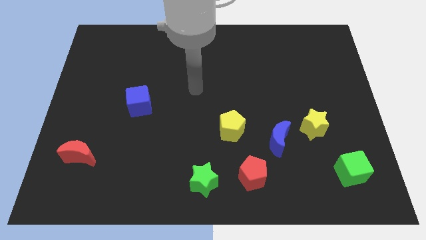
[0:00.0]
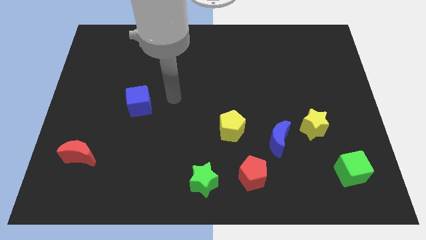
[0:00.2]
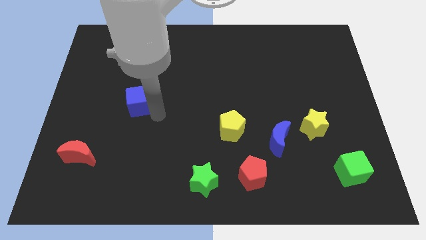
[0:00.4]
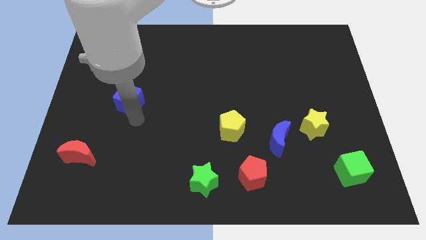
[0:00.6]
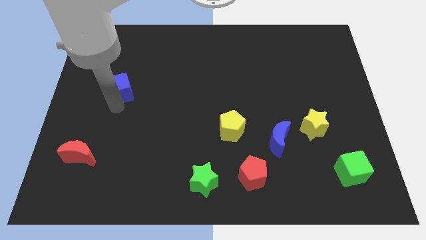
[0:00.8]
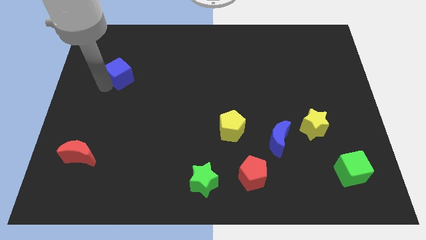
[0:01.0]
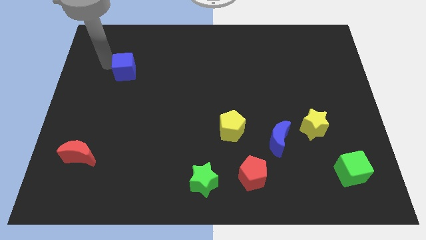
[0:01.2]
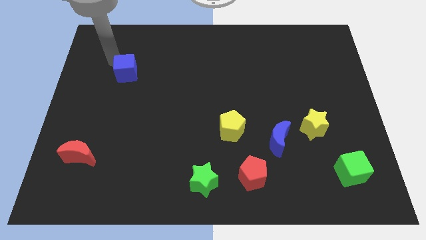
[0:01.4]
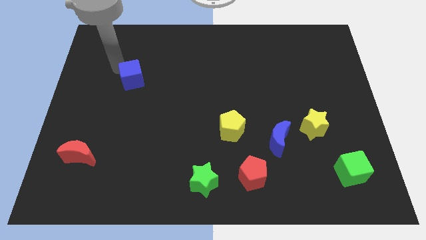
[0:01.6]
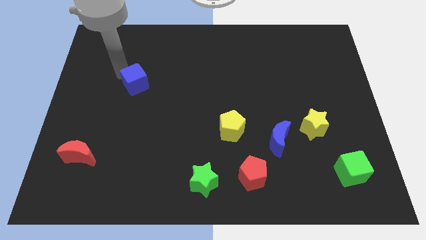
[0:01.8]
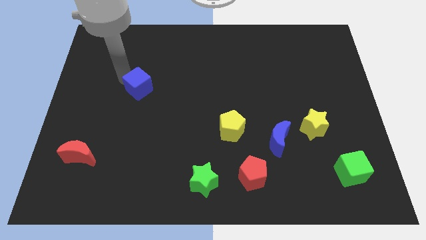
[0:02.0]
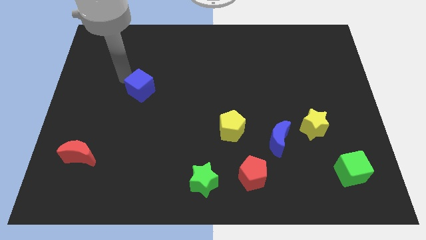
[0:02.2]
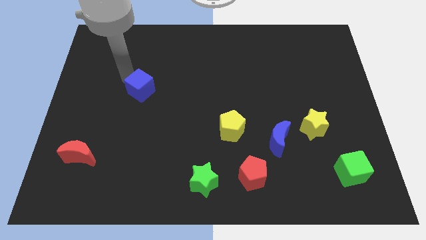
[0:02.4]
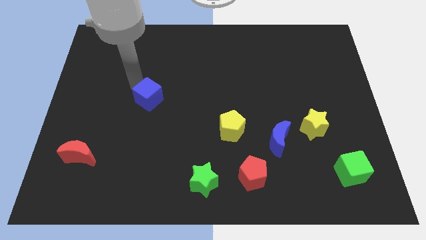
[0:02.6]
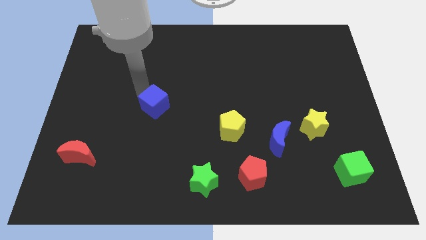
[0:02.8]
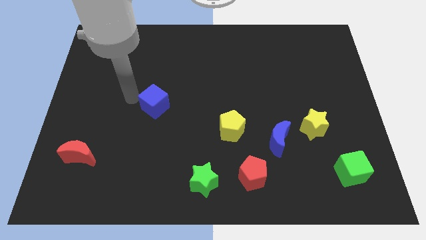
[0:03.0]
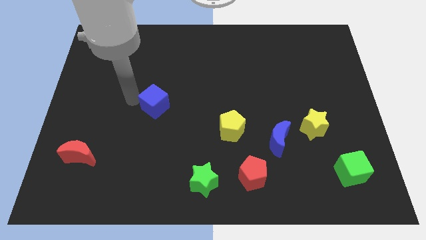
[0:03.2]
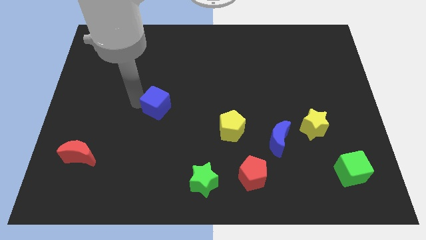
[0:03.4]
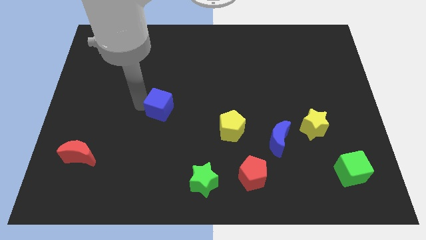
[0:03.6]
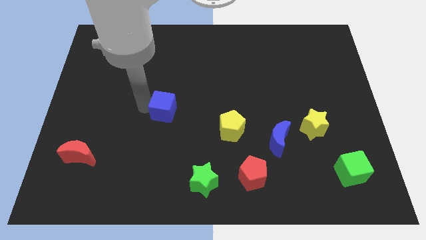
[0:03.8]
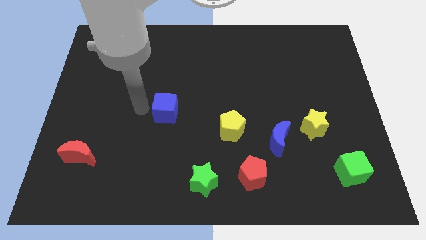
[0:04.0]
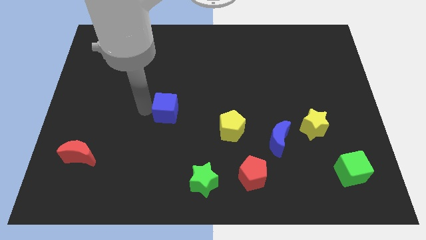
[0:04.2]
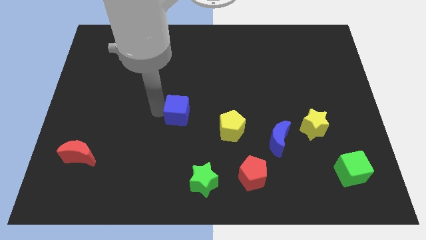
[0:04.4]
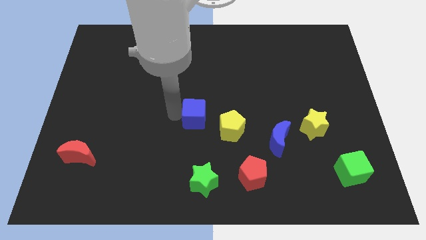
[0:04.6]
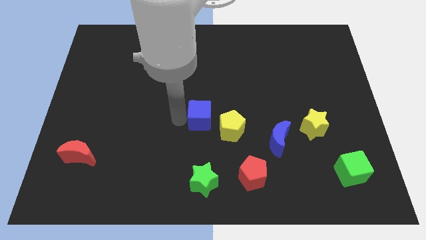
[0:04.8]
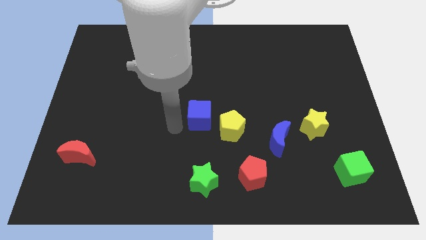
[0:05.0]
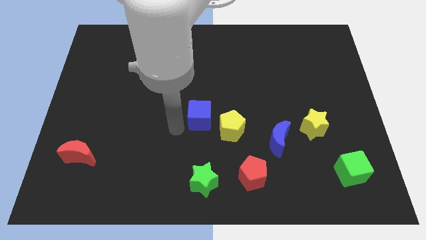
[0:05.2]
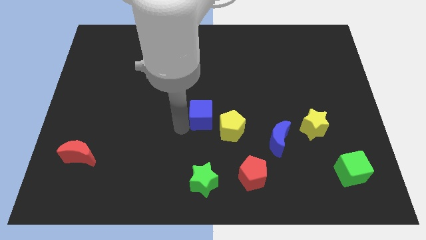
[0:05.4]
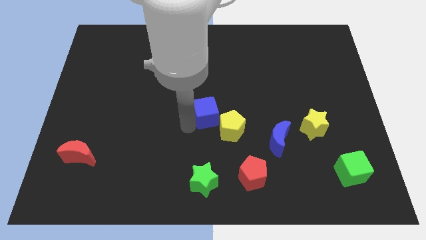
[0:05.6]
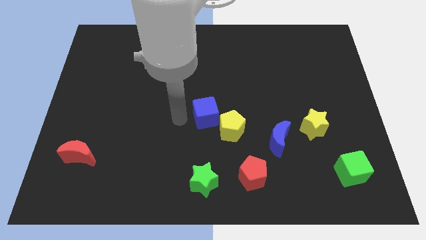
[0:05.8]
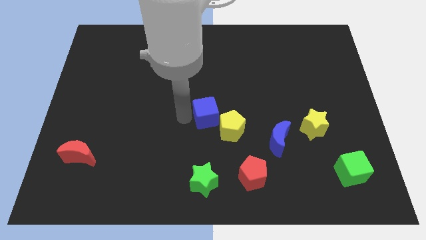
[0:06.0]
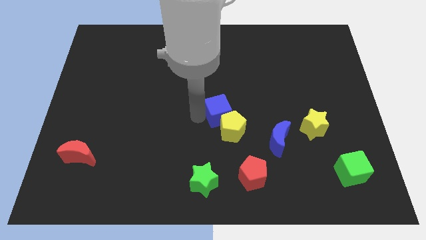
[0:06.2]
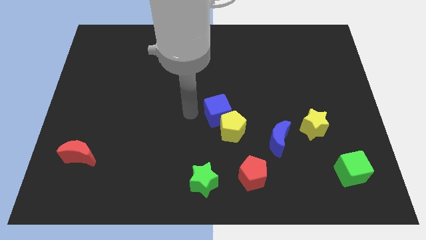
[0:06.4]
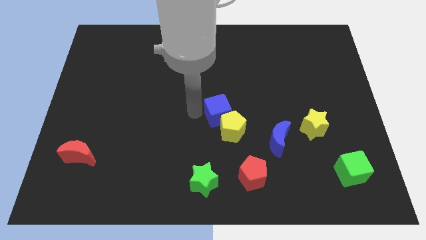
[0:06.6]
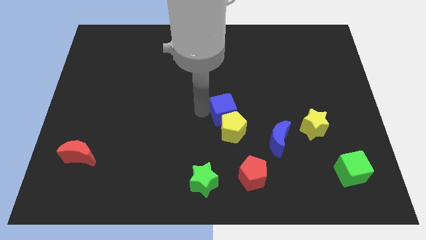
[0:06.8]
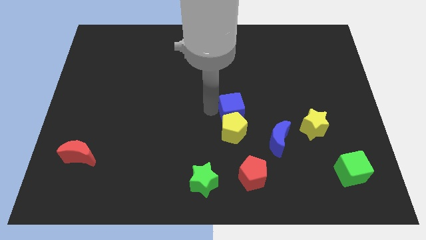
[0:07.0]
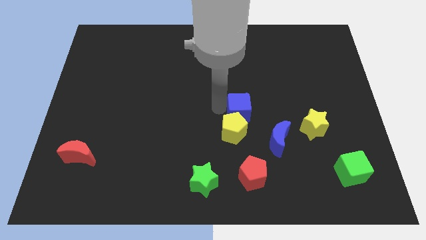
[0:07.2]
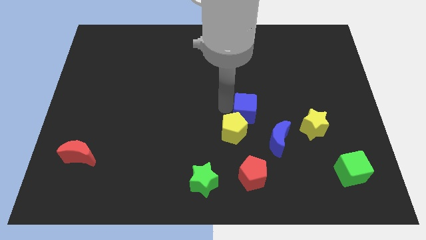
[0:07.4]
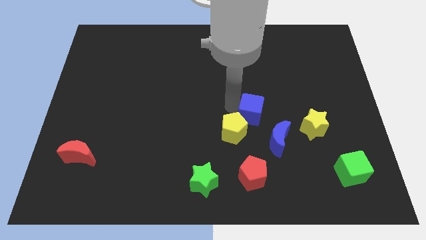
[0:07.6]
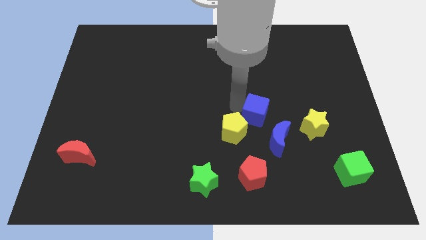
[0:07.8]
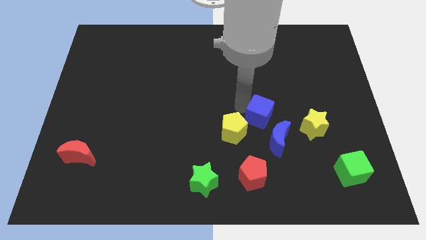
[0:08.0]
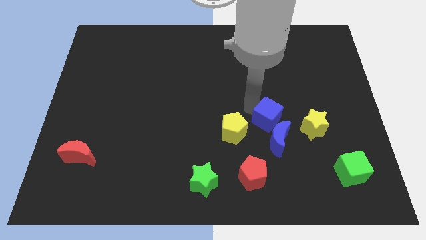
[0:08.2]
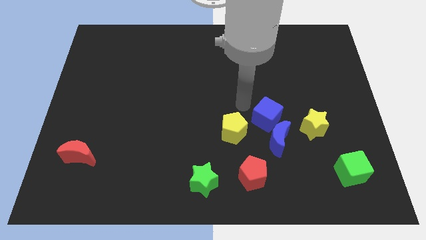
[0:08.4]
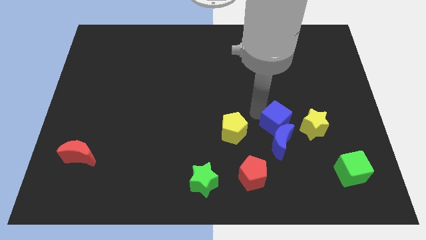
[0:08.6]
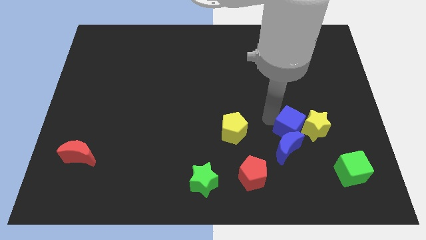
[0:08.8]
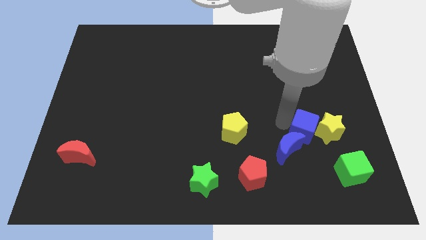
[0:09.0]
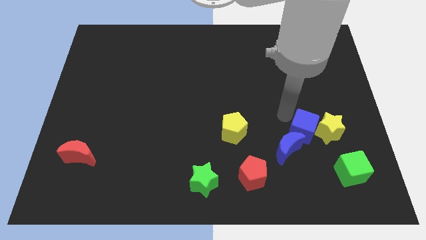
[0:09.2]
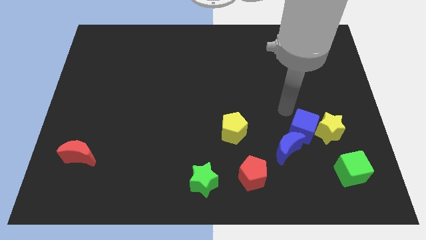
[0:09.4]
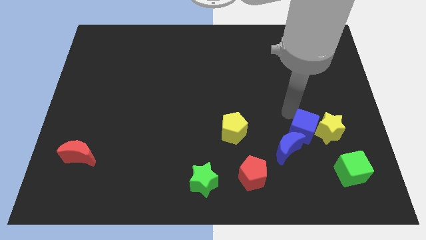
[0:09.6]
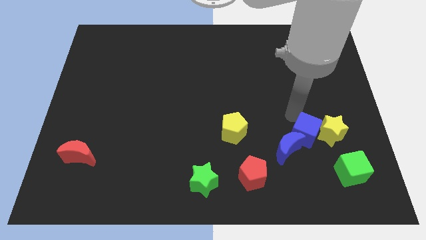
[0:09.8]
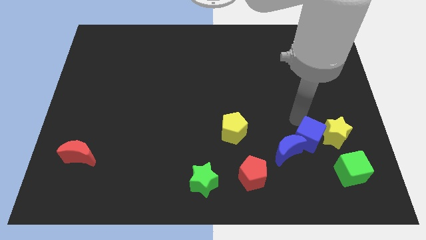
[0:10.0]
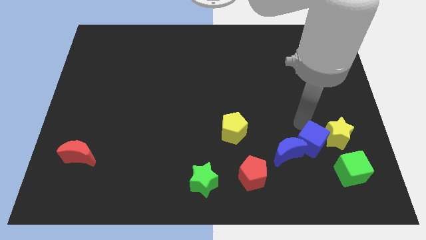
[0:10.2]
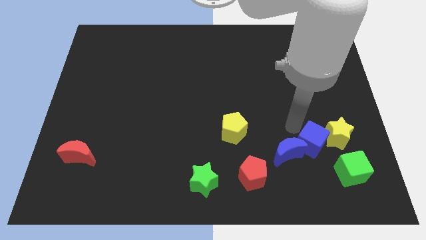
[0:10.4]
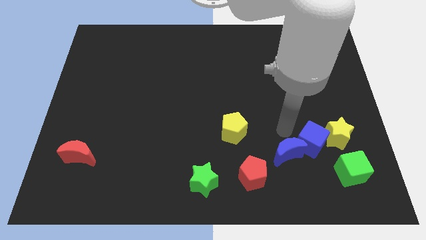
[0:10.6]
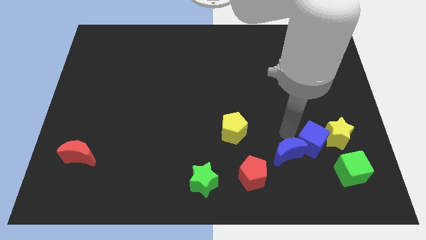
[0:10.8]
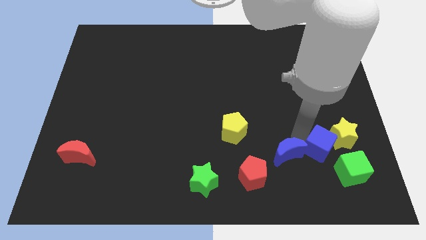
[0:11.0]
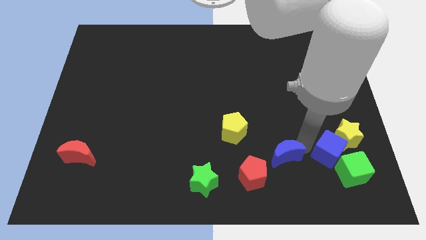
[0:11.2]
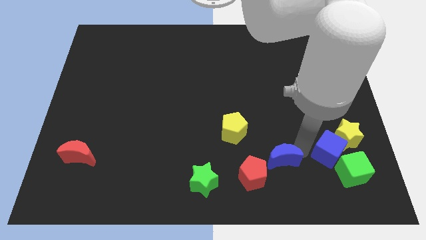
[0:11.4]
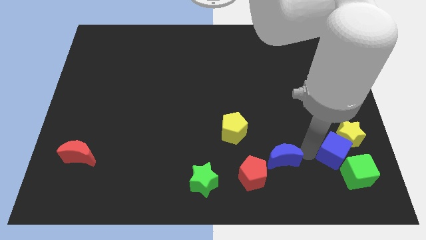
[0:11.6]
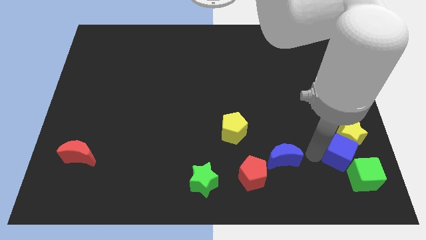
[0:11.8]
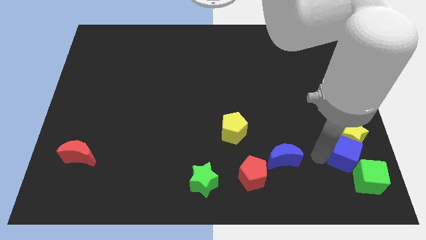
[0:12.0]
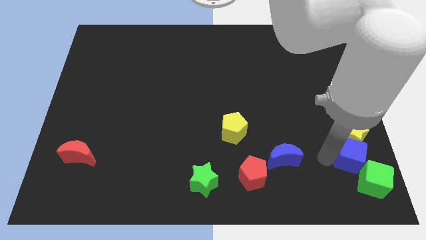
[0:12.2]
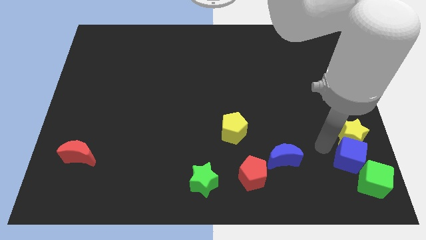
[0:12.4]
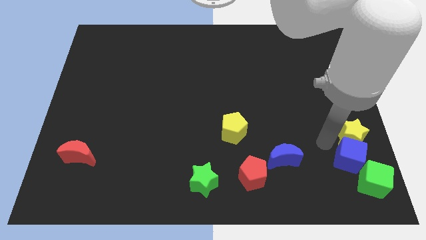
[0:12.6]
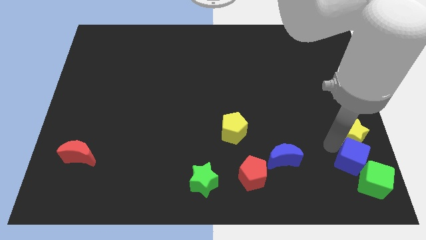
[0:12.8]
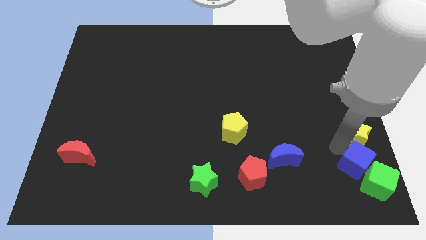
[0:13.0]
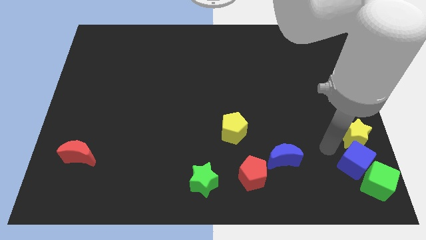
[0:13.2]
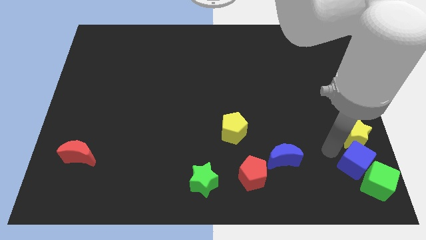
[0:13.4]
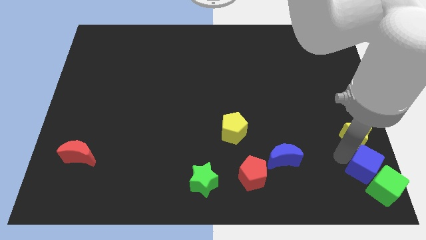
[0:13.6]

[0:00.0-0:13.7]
move the blue cube to the lower right corner

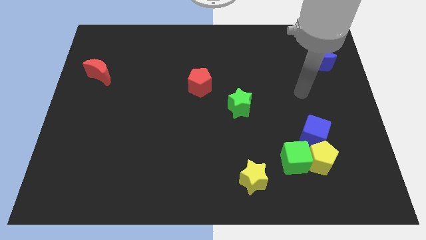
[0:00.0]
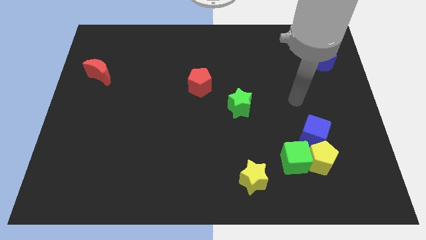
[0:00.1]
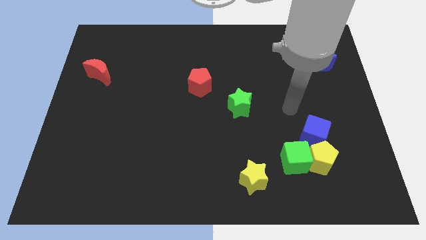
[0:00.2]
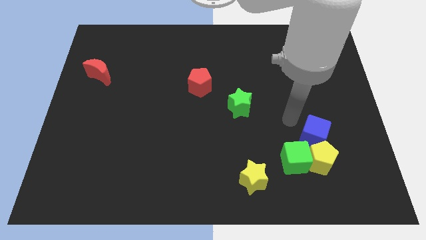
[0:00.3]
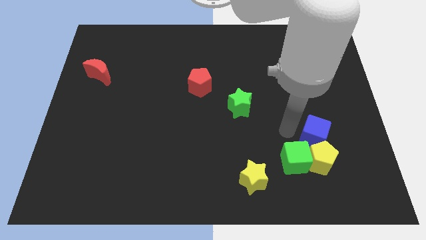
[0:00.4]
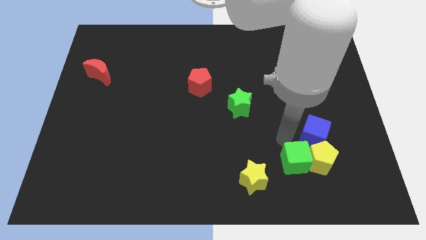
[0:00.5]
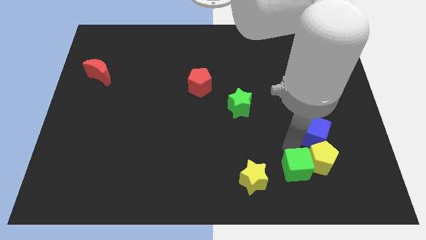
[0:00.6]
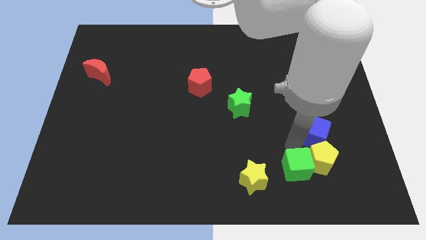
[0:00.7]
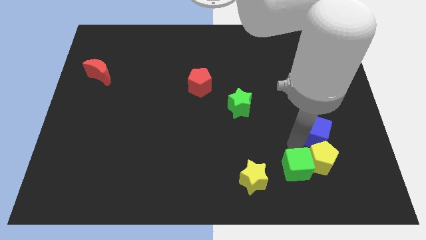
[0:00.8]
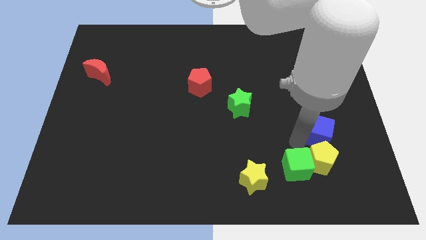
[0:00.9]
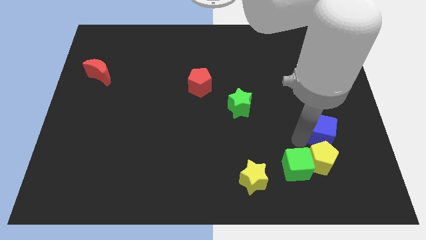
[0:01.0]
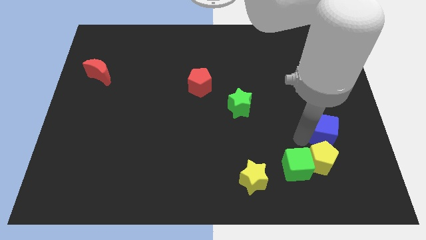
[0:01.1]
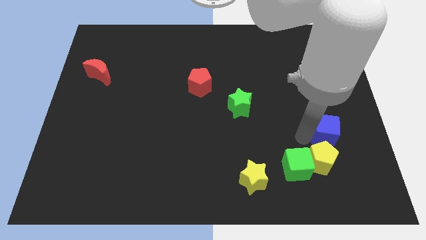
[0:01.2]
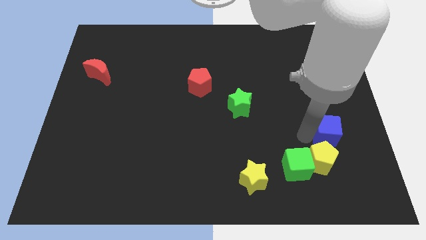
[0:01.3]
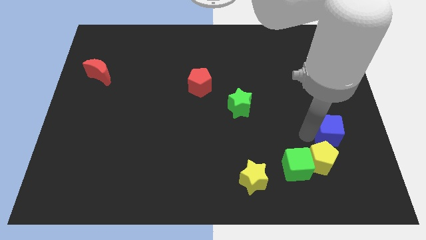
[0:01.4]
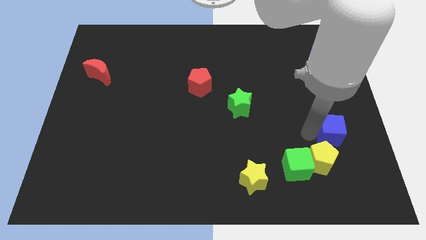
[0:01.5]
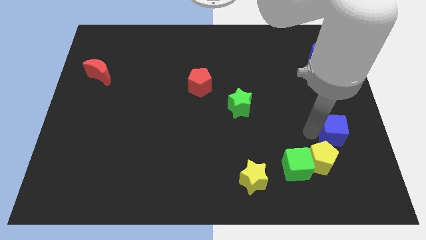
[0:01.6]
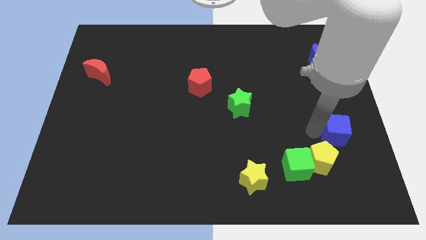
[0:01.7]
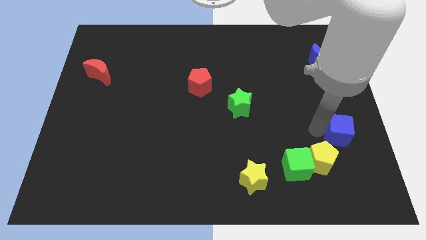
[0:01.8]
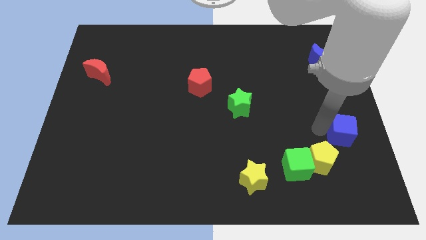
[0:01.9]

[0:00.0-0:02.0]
slide the blue cube to the right side of the board
